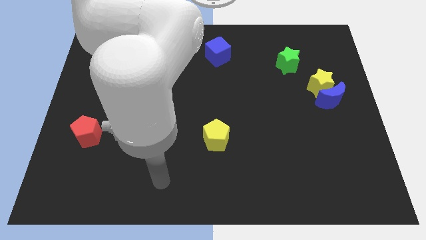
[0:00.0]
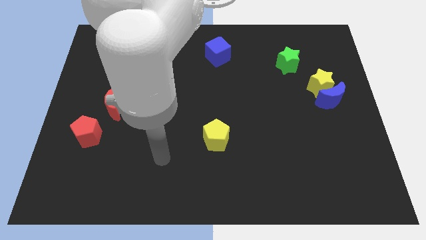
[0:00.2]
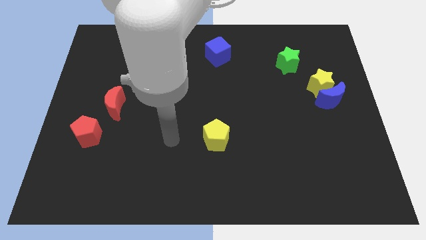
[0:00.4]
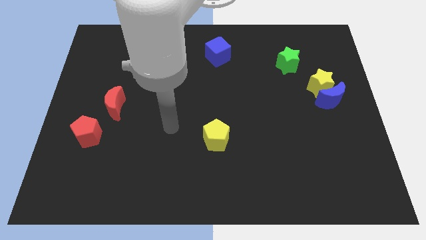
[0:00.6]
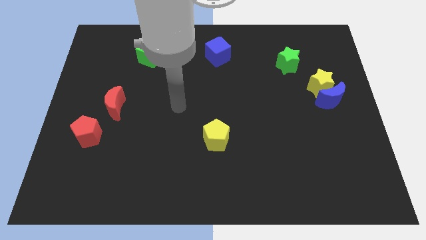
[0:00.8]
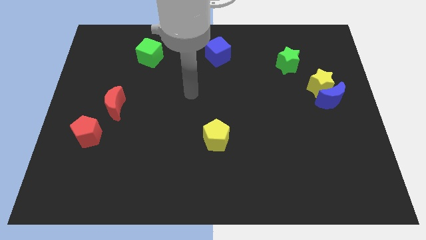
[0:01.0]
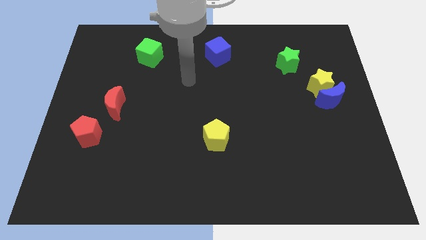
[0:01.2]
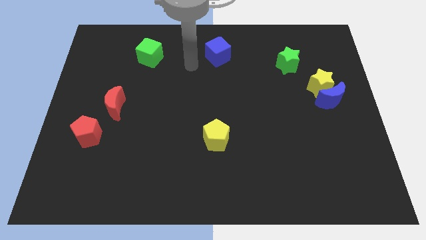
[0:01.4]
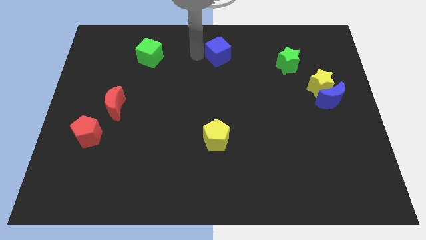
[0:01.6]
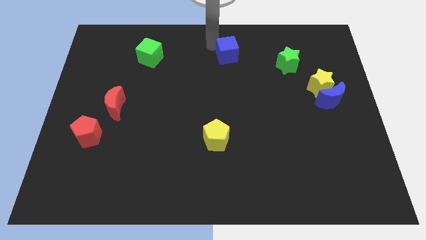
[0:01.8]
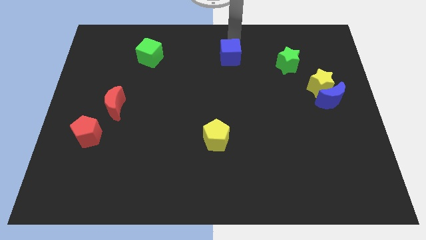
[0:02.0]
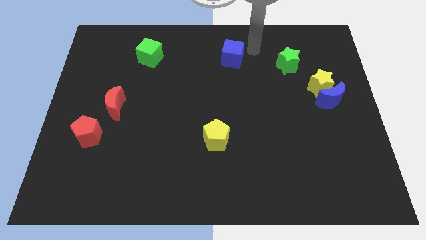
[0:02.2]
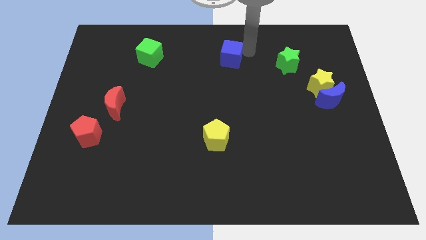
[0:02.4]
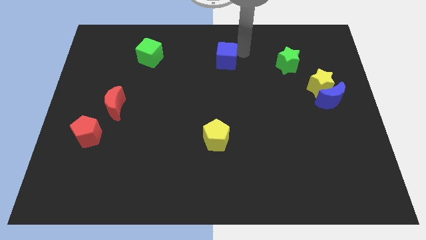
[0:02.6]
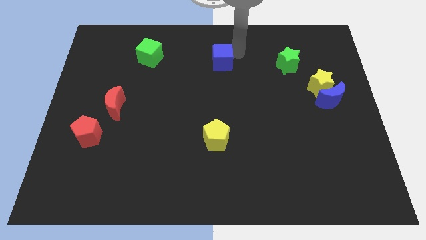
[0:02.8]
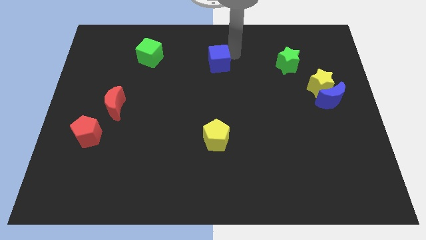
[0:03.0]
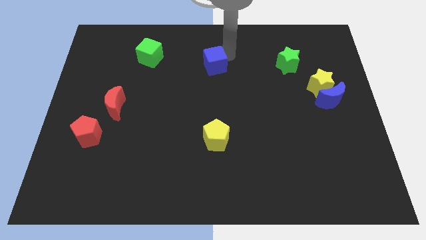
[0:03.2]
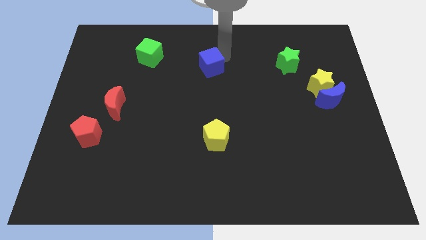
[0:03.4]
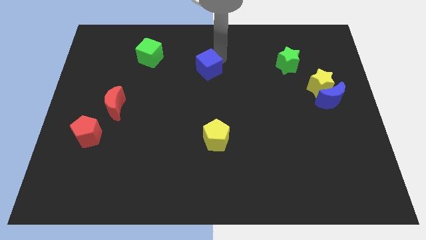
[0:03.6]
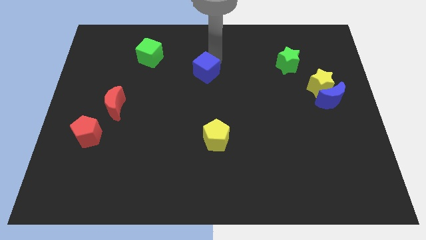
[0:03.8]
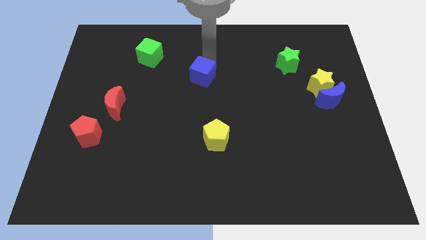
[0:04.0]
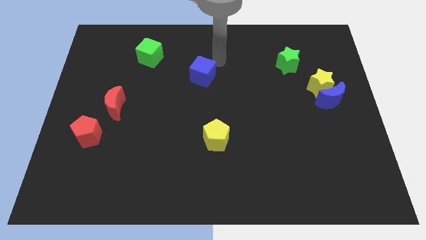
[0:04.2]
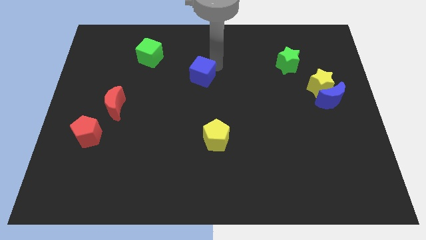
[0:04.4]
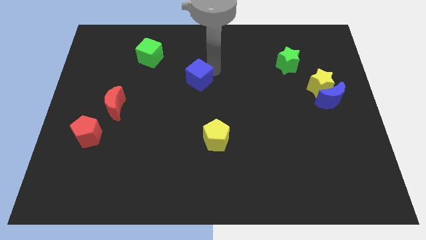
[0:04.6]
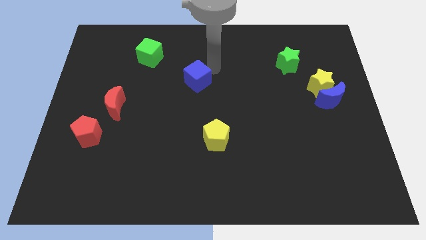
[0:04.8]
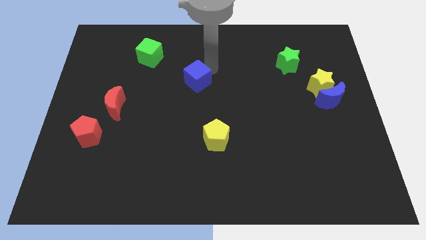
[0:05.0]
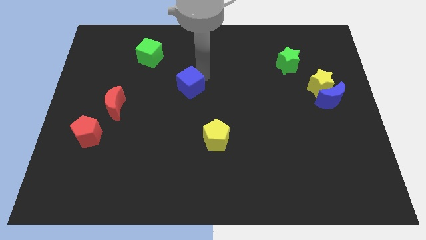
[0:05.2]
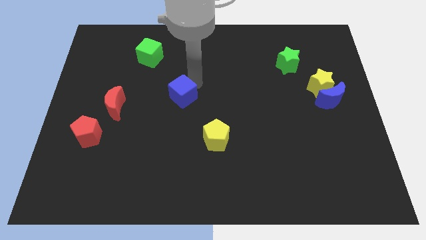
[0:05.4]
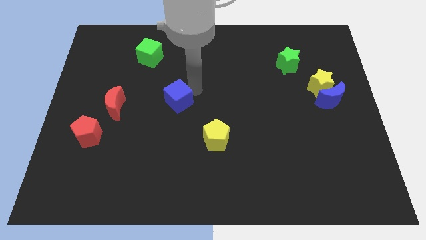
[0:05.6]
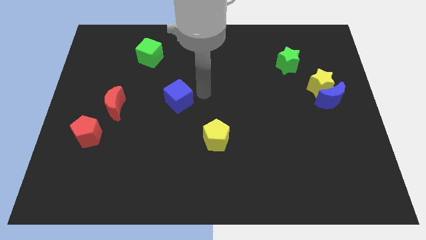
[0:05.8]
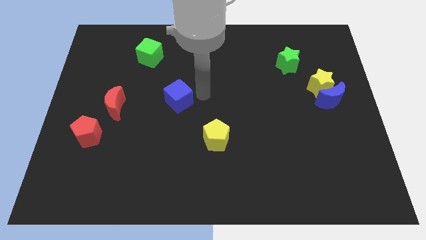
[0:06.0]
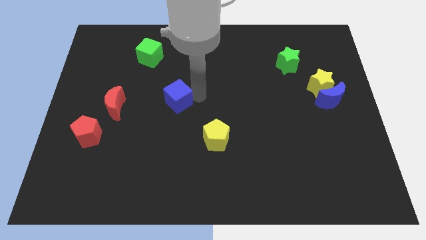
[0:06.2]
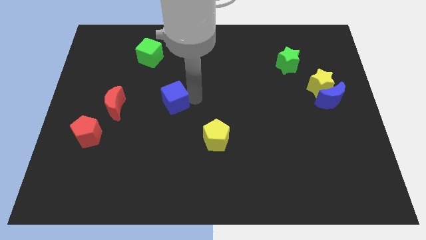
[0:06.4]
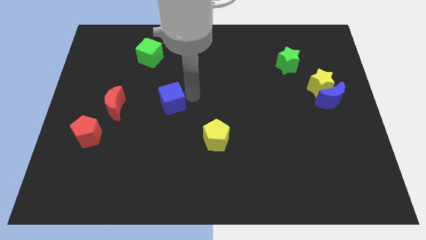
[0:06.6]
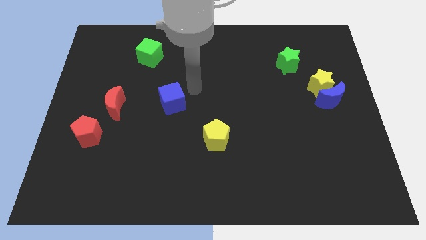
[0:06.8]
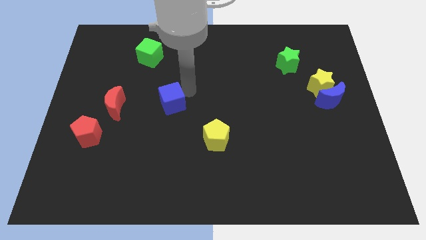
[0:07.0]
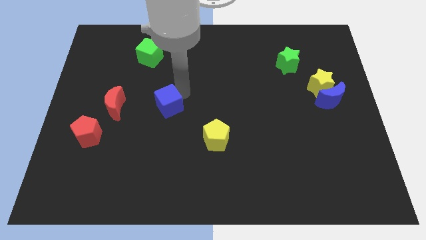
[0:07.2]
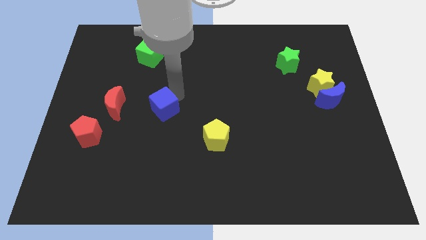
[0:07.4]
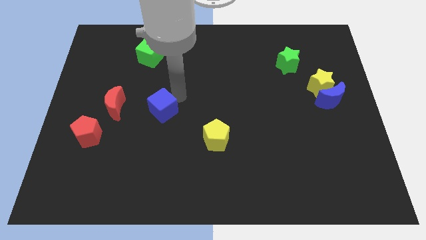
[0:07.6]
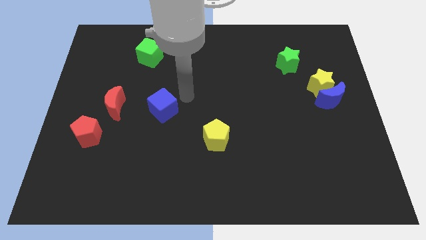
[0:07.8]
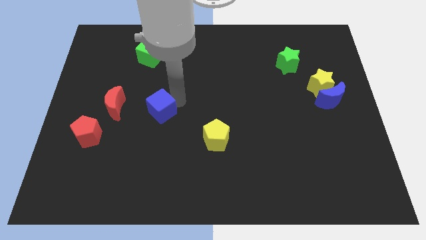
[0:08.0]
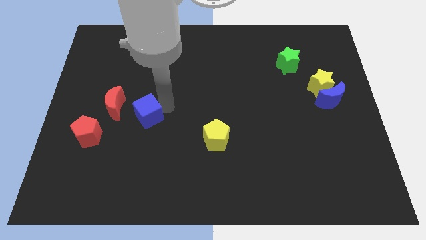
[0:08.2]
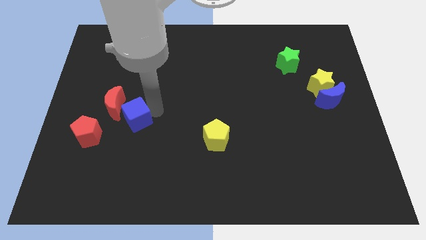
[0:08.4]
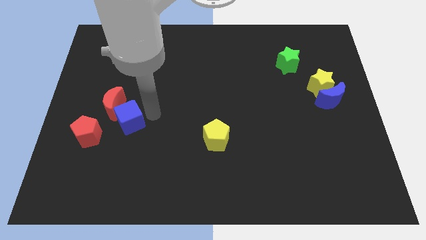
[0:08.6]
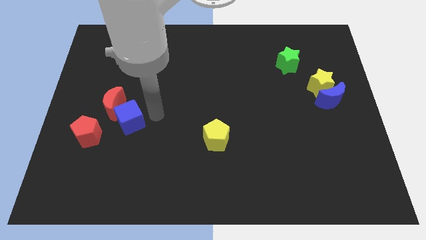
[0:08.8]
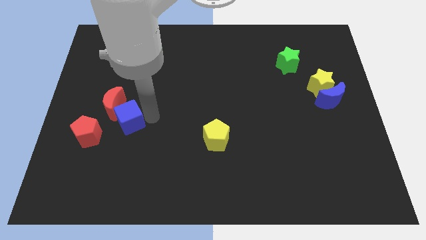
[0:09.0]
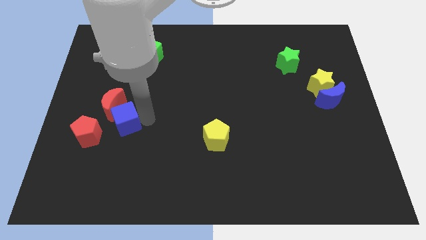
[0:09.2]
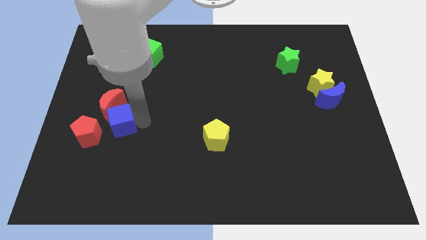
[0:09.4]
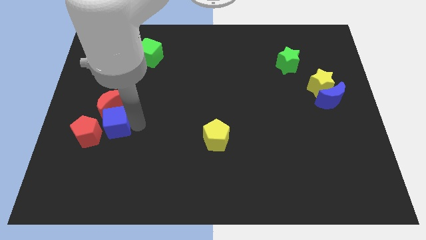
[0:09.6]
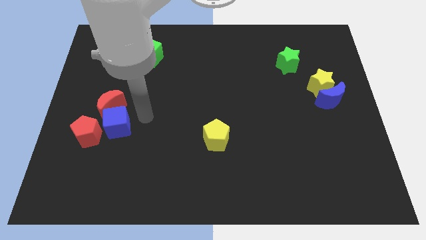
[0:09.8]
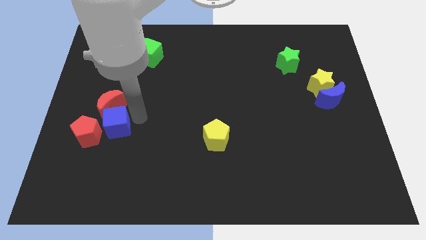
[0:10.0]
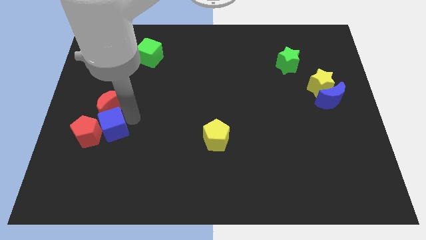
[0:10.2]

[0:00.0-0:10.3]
put the blue cube to the red pentagon

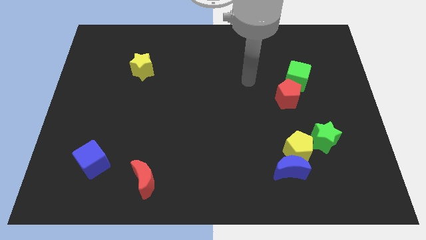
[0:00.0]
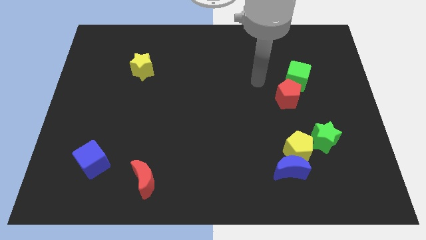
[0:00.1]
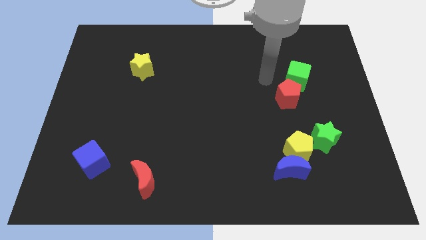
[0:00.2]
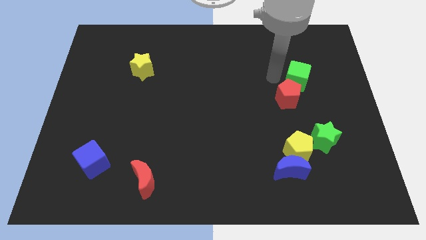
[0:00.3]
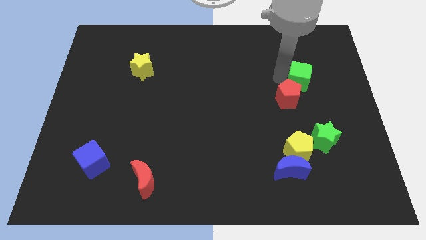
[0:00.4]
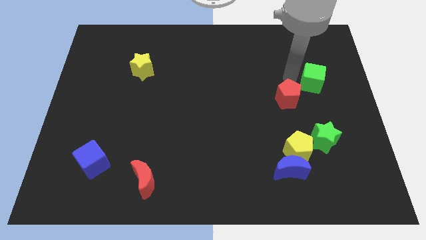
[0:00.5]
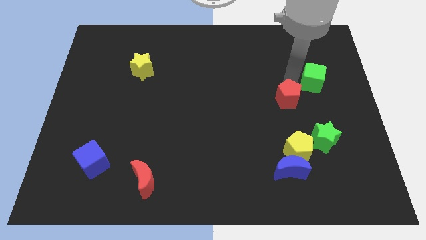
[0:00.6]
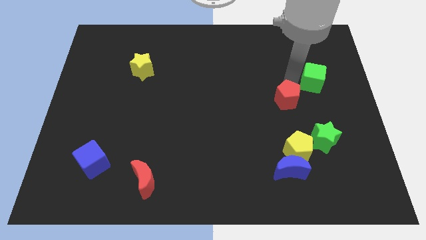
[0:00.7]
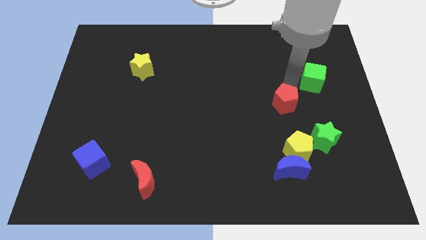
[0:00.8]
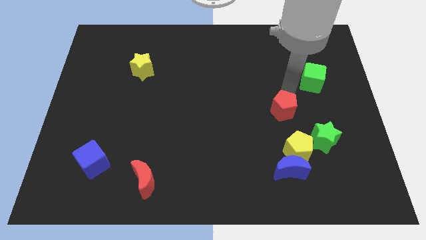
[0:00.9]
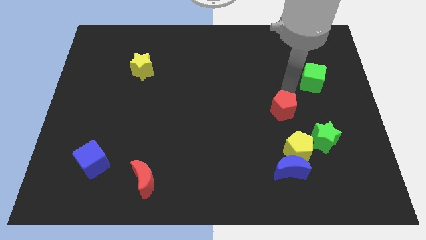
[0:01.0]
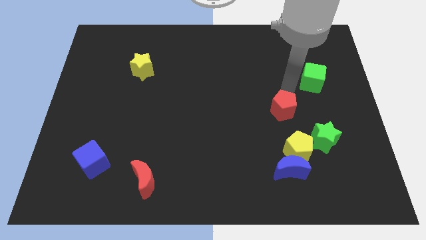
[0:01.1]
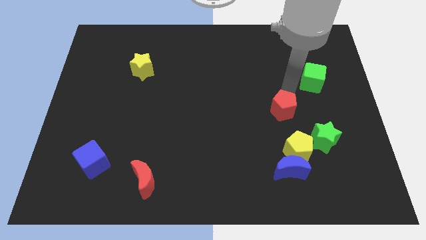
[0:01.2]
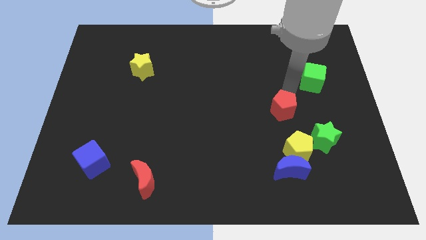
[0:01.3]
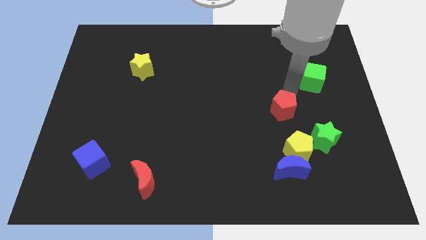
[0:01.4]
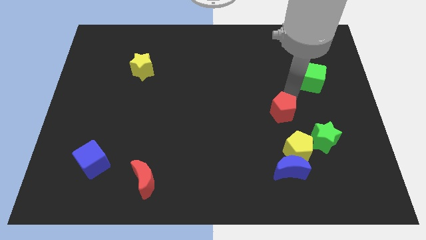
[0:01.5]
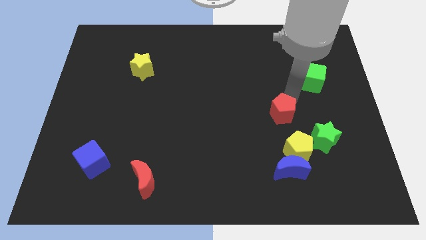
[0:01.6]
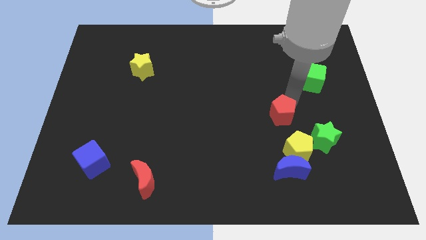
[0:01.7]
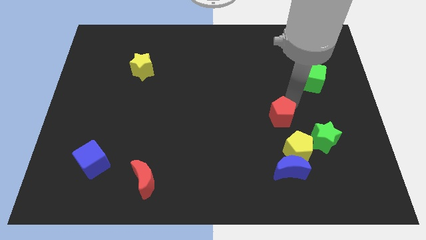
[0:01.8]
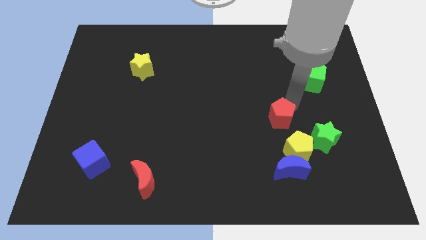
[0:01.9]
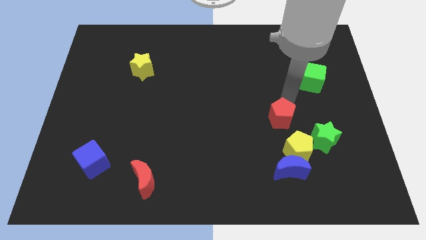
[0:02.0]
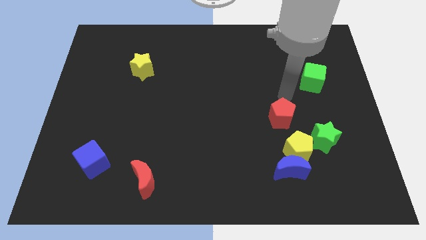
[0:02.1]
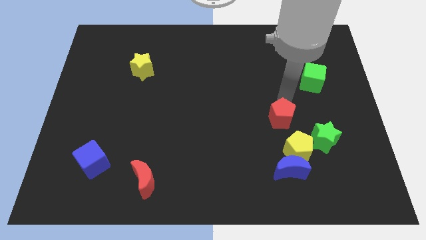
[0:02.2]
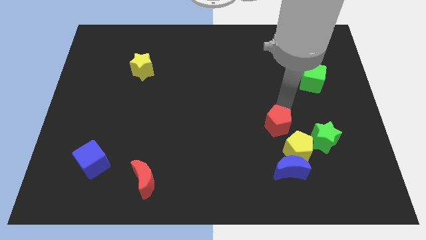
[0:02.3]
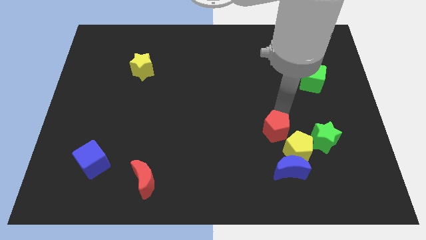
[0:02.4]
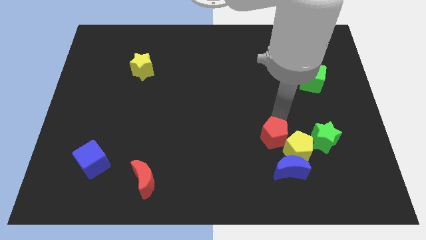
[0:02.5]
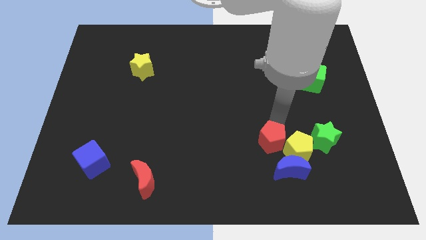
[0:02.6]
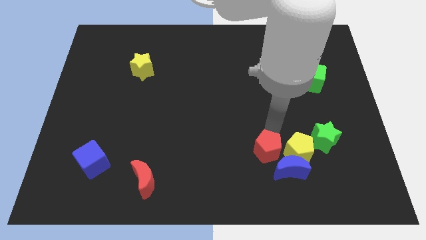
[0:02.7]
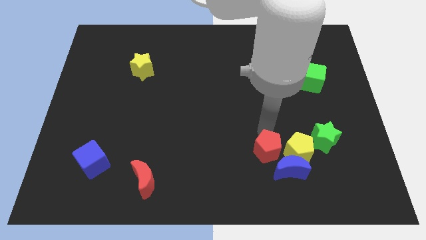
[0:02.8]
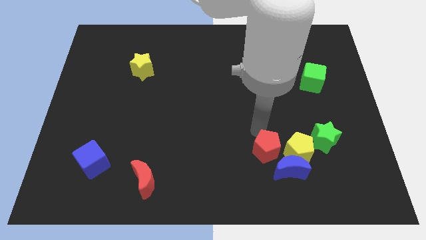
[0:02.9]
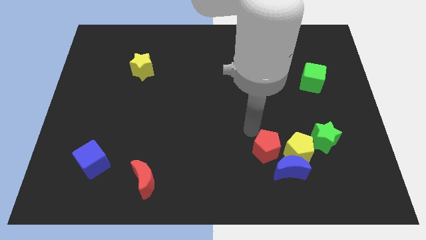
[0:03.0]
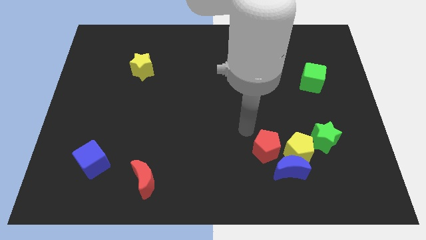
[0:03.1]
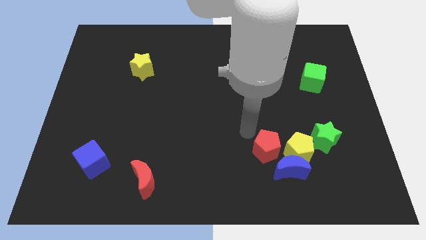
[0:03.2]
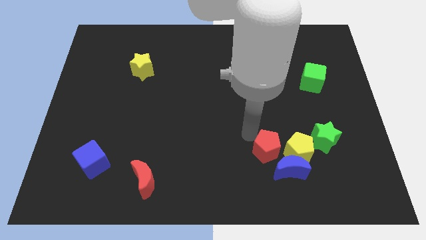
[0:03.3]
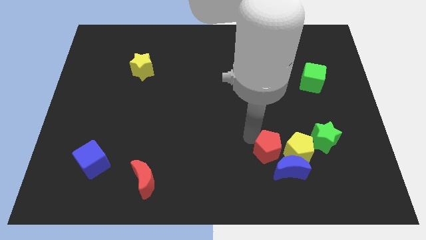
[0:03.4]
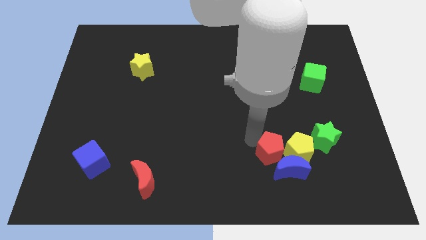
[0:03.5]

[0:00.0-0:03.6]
slide the red pentagon next to the blue moon
